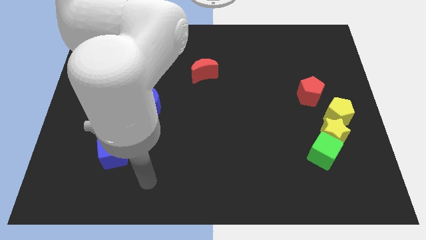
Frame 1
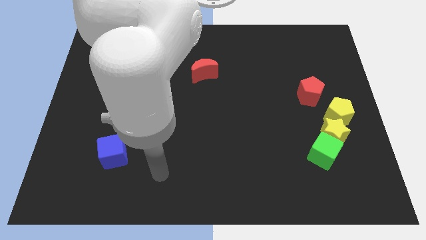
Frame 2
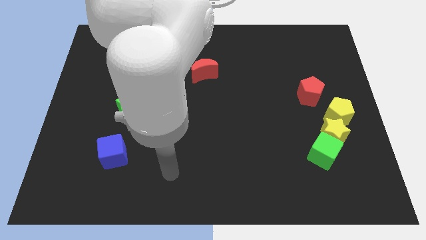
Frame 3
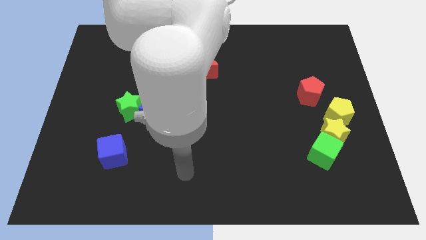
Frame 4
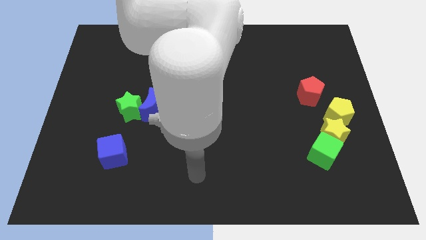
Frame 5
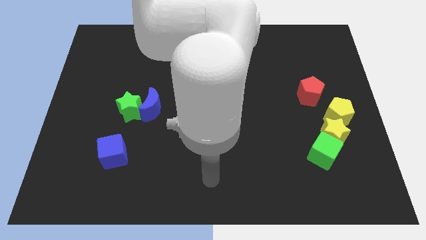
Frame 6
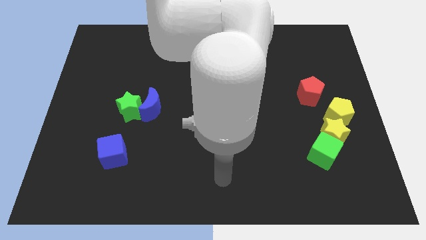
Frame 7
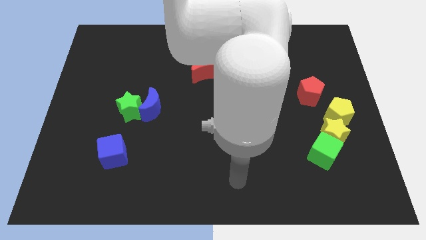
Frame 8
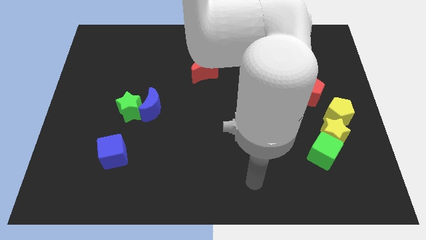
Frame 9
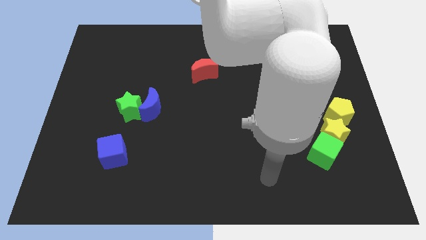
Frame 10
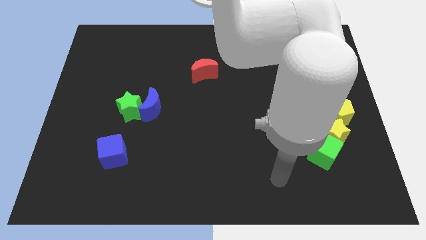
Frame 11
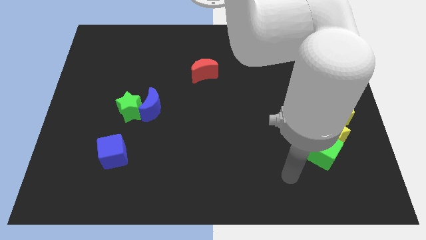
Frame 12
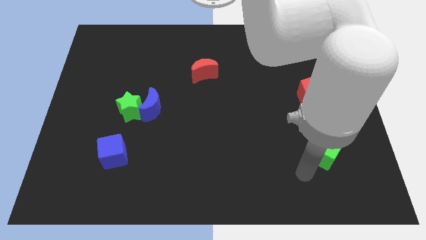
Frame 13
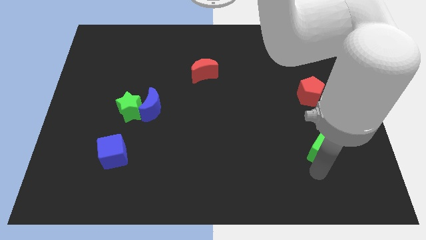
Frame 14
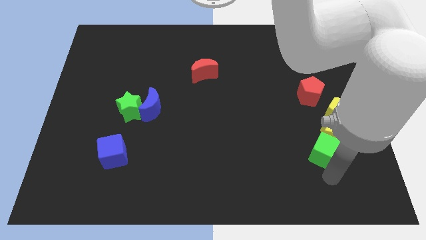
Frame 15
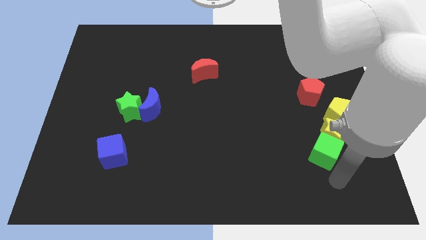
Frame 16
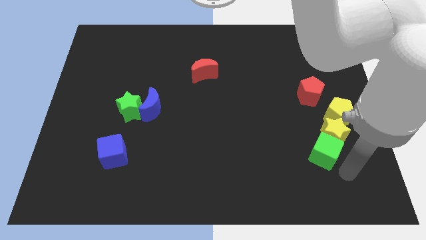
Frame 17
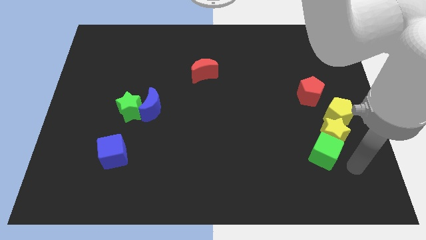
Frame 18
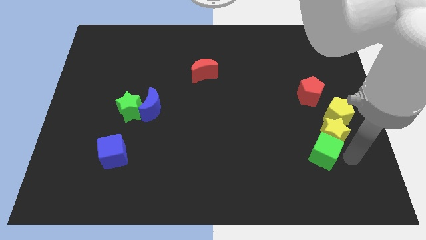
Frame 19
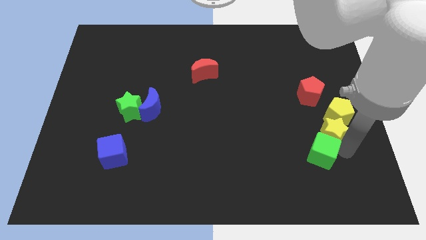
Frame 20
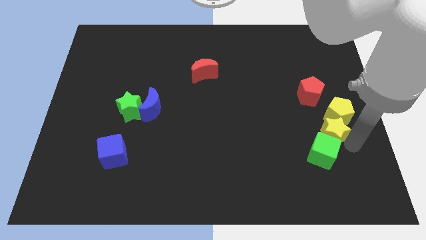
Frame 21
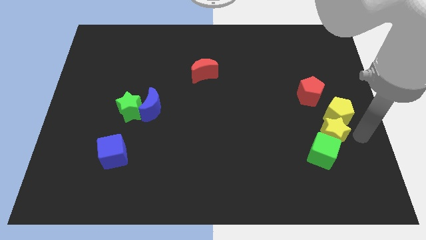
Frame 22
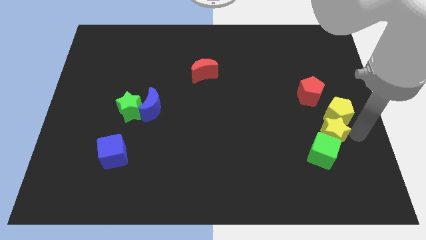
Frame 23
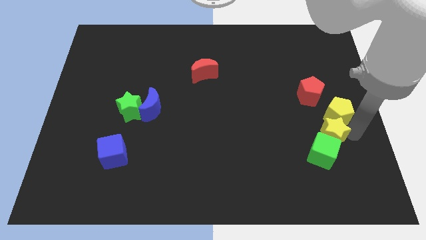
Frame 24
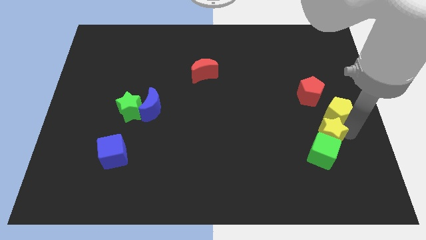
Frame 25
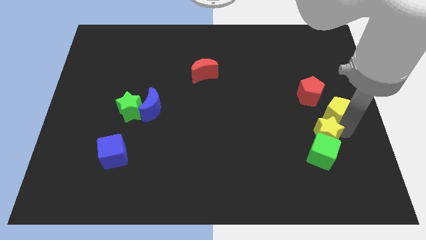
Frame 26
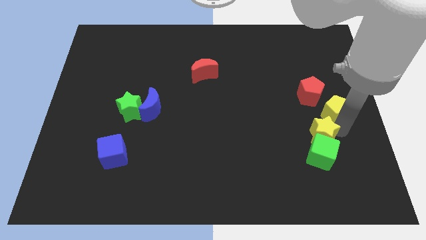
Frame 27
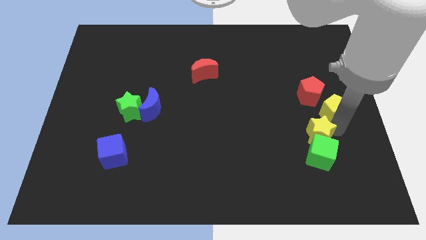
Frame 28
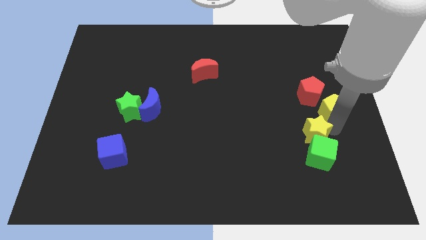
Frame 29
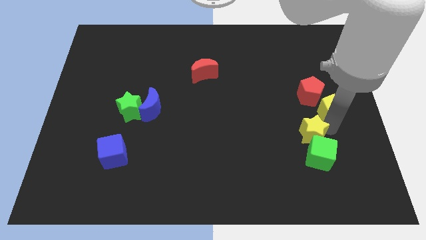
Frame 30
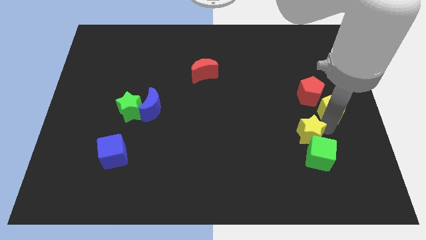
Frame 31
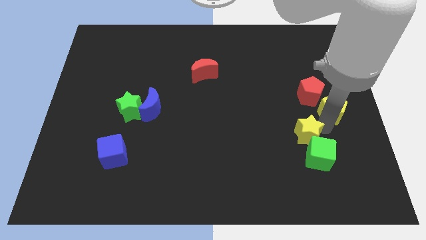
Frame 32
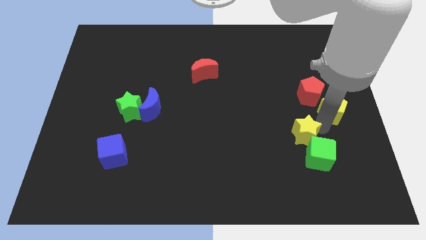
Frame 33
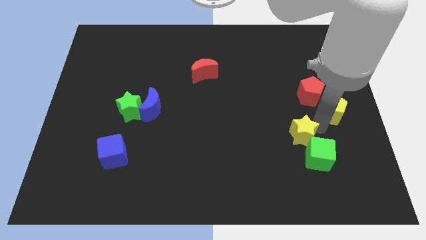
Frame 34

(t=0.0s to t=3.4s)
slightly move the yellow star left

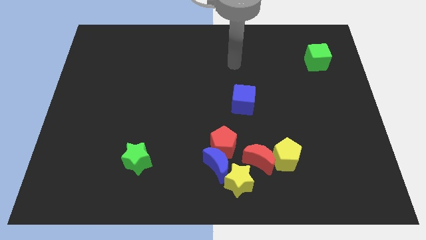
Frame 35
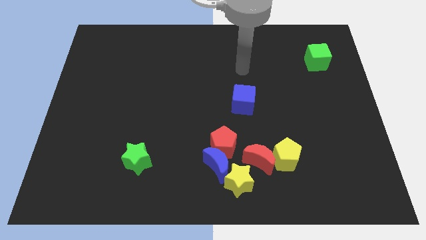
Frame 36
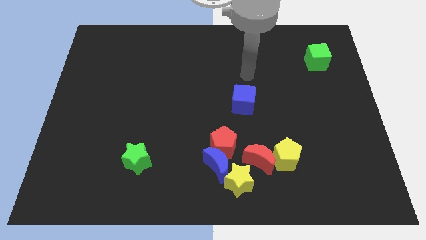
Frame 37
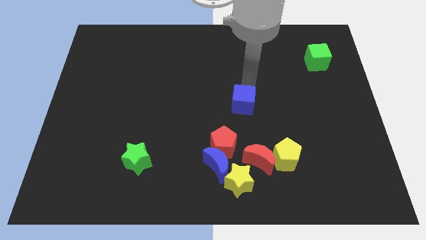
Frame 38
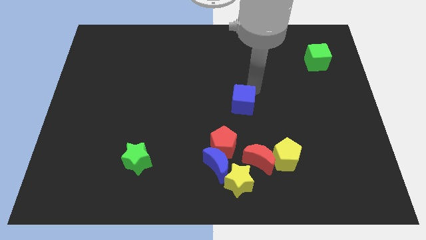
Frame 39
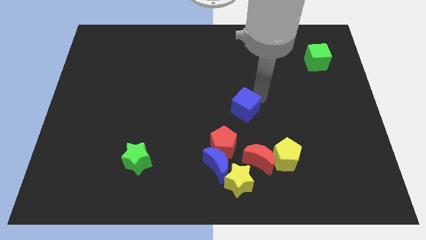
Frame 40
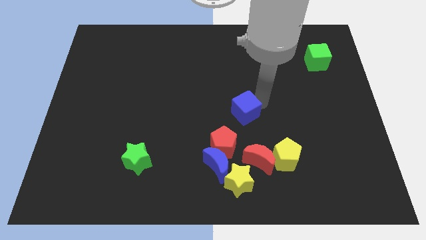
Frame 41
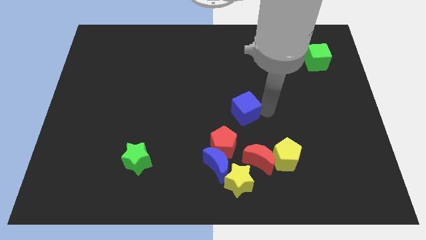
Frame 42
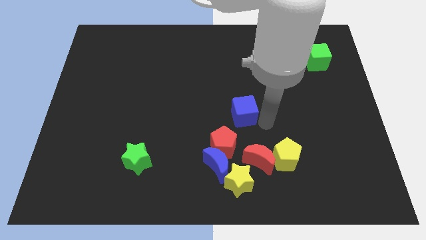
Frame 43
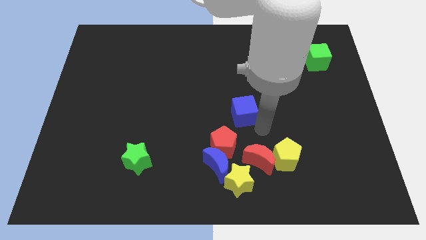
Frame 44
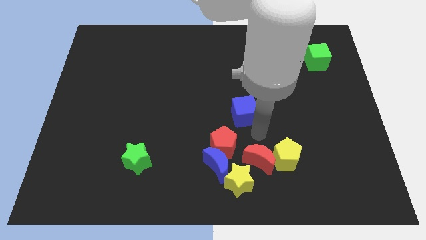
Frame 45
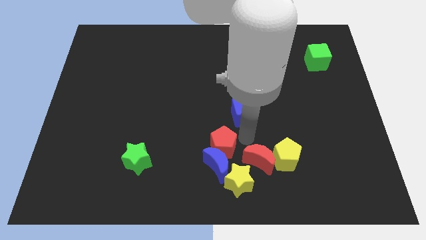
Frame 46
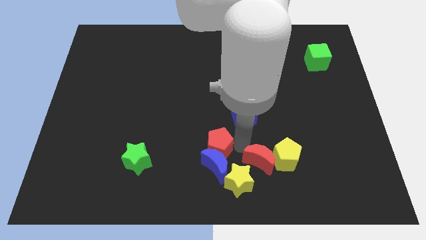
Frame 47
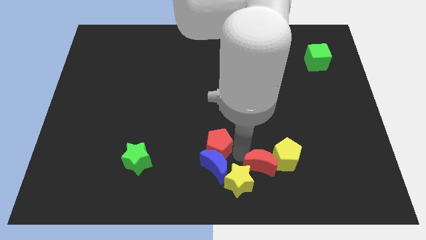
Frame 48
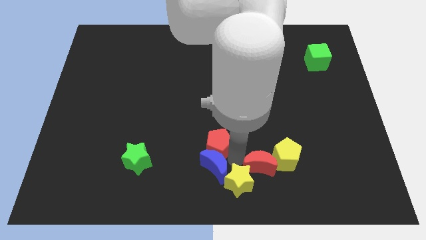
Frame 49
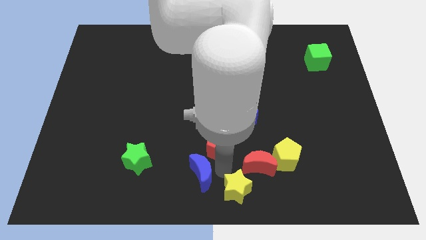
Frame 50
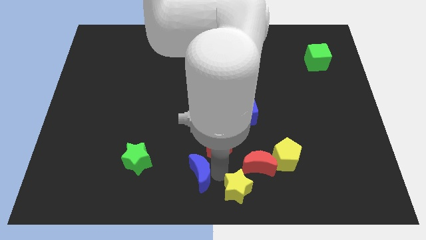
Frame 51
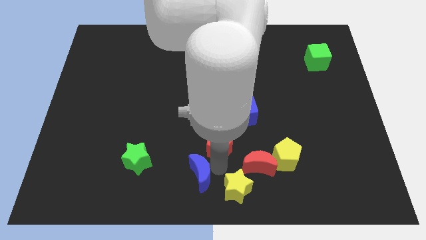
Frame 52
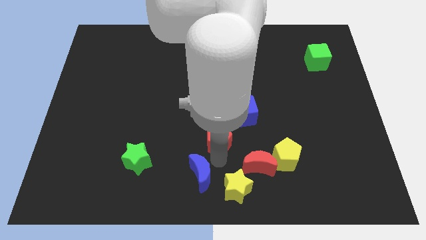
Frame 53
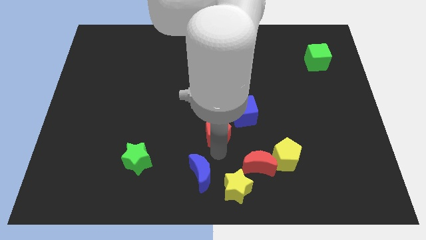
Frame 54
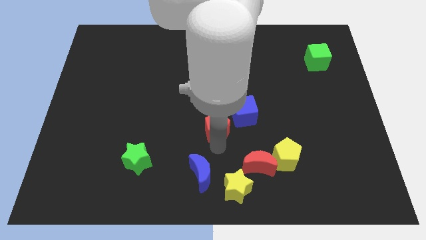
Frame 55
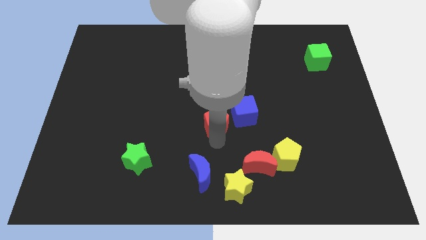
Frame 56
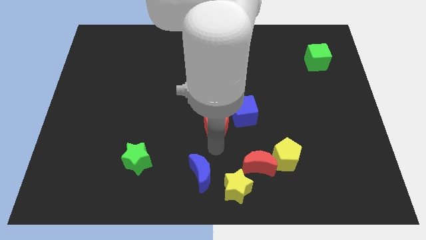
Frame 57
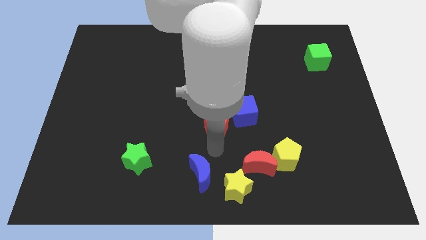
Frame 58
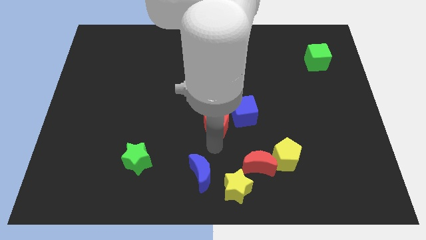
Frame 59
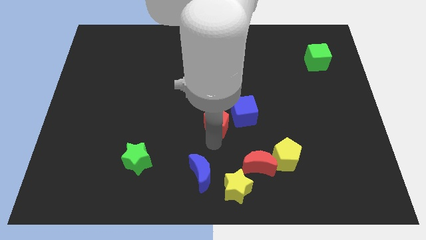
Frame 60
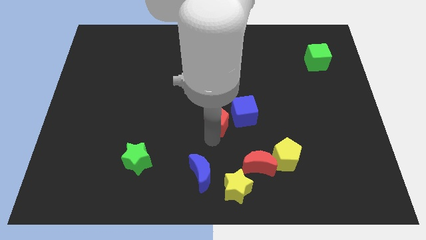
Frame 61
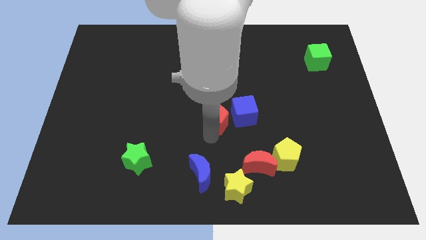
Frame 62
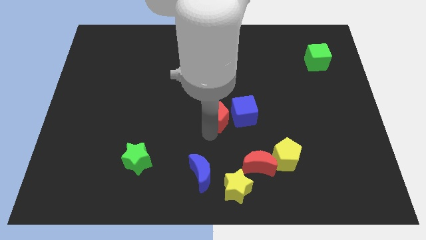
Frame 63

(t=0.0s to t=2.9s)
move the red pentagon a little up

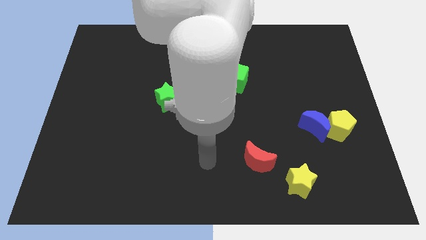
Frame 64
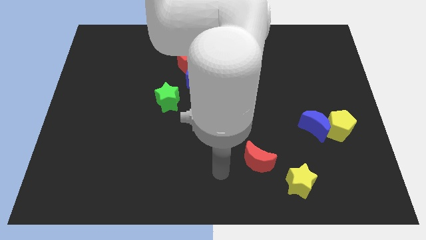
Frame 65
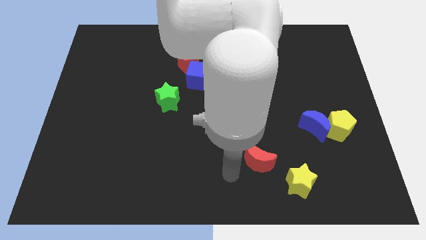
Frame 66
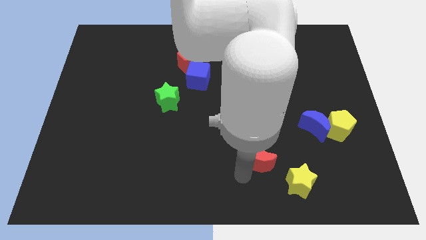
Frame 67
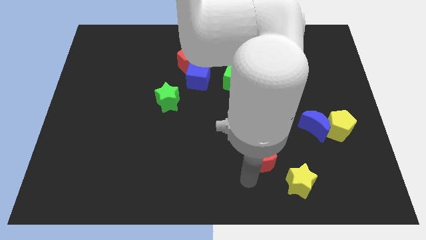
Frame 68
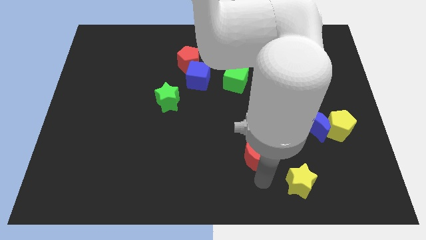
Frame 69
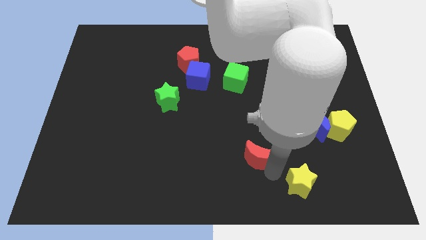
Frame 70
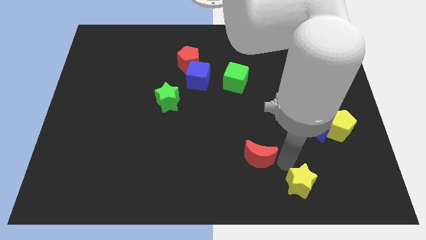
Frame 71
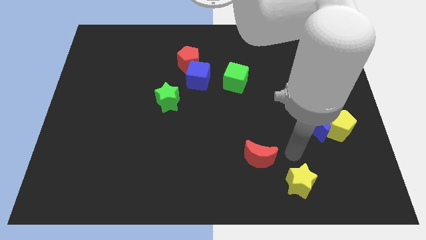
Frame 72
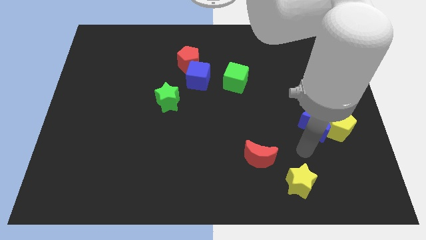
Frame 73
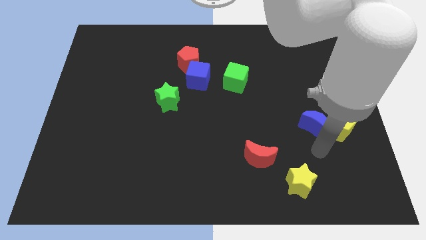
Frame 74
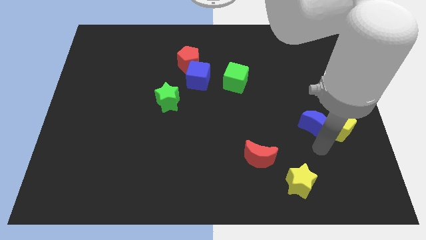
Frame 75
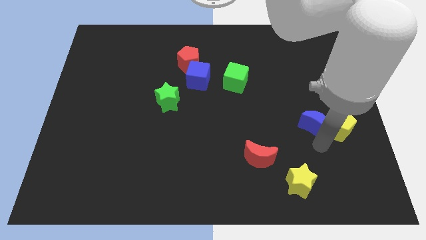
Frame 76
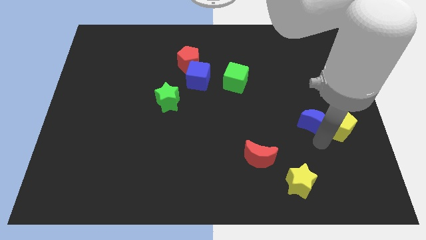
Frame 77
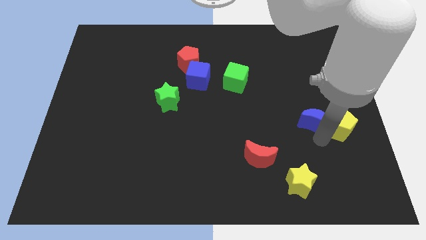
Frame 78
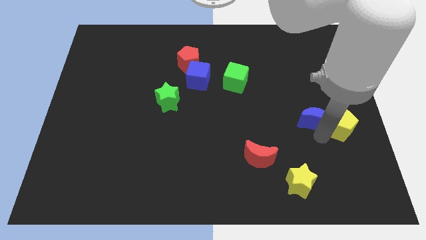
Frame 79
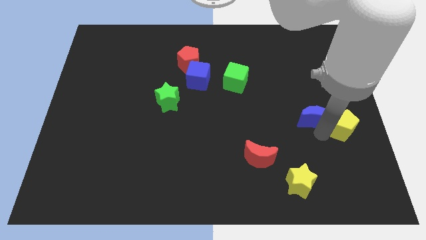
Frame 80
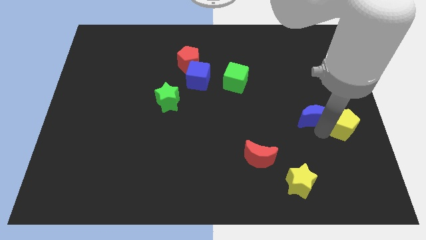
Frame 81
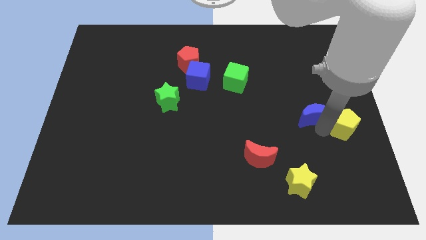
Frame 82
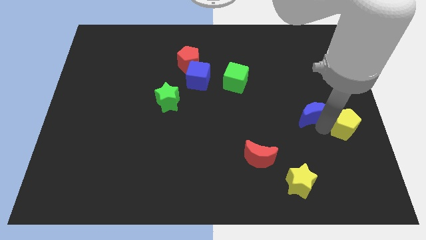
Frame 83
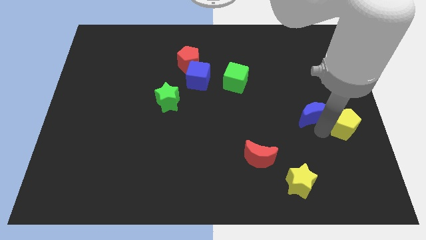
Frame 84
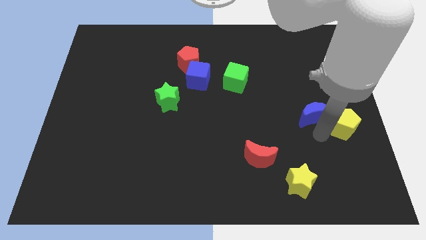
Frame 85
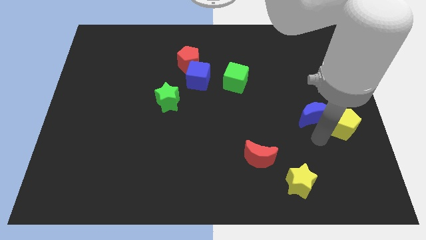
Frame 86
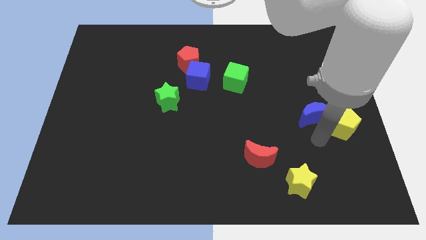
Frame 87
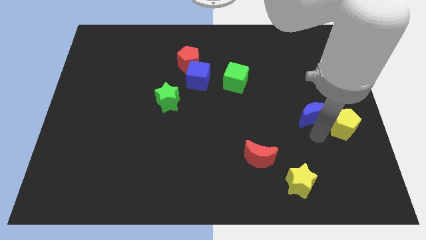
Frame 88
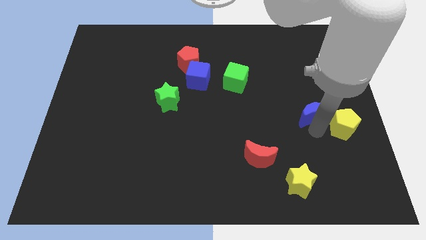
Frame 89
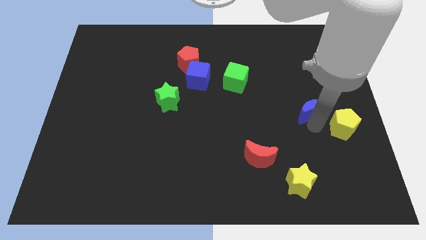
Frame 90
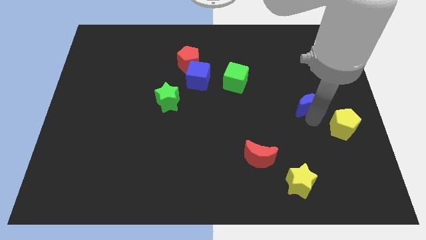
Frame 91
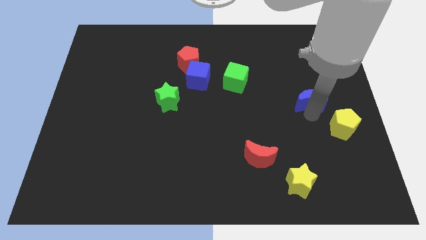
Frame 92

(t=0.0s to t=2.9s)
slide the blue moon upwards slightly
